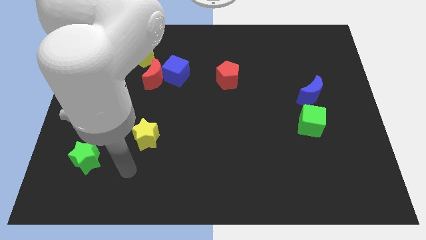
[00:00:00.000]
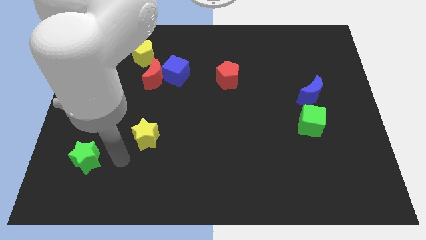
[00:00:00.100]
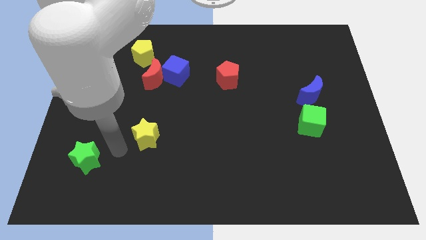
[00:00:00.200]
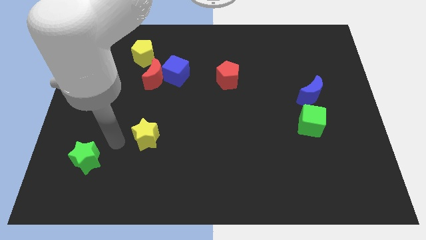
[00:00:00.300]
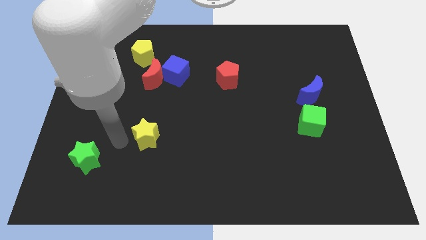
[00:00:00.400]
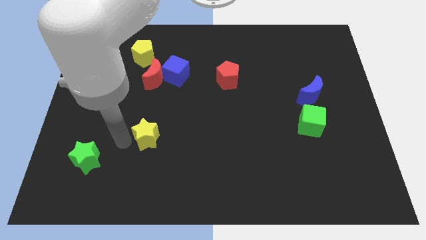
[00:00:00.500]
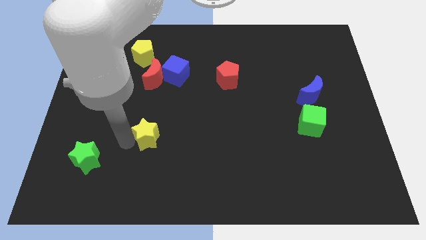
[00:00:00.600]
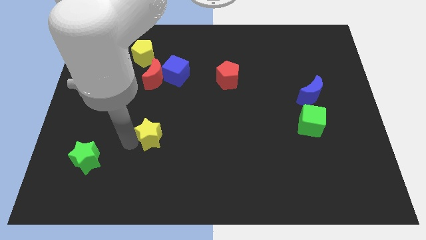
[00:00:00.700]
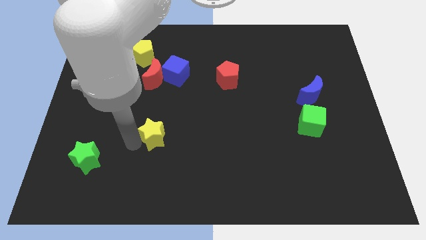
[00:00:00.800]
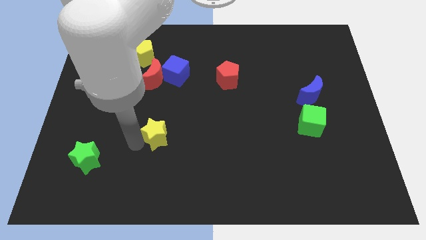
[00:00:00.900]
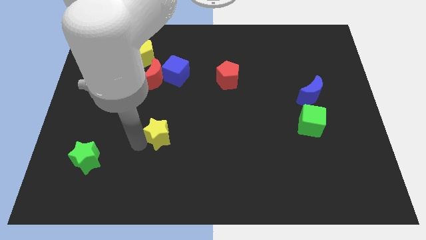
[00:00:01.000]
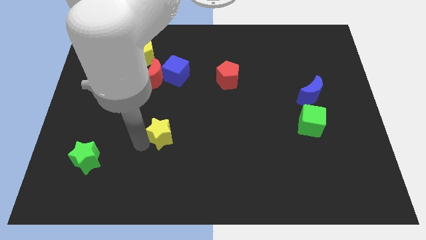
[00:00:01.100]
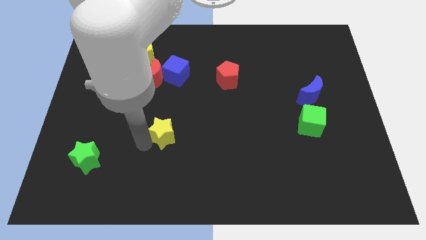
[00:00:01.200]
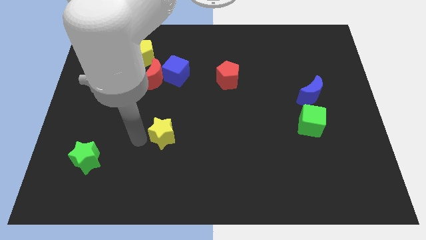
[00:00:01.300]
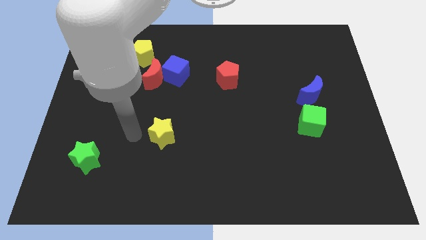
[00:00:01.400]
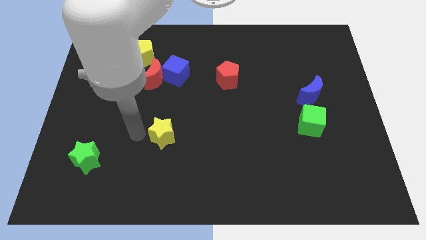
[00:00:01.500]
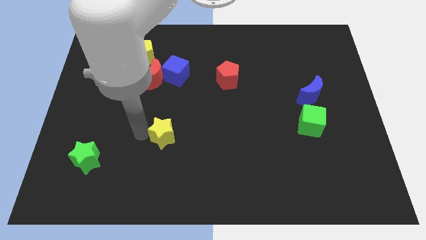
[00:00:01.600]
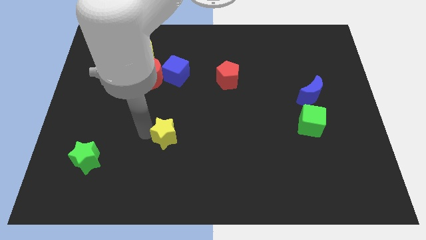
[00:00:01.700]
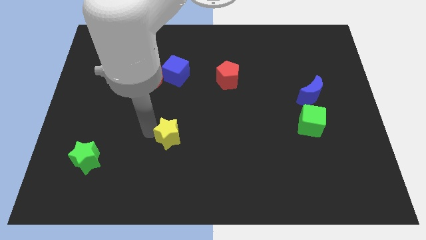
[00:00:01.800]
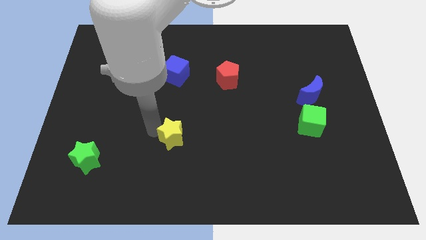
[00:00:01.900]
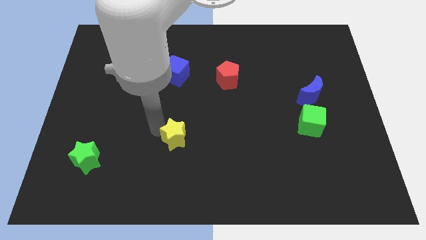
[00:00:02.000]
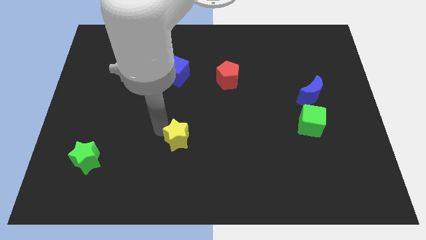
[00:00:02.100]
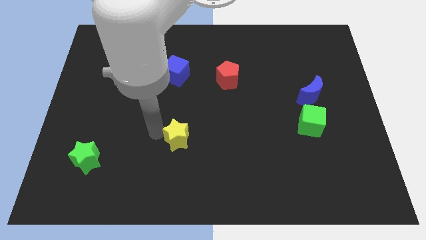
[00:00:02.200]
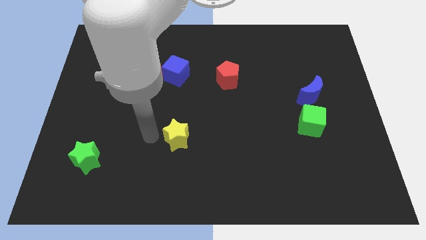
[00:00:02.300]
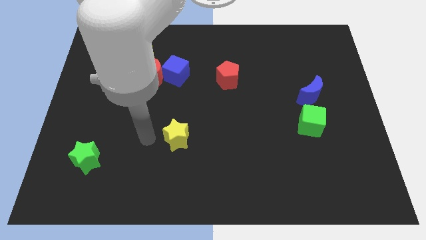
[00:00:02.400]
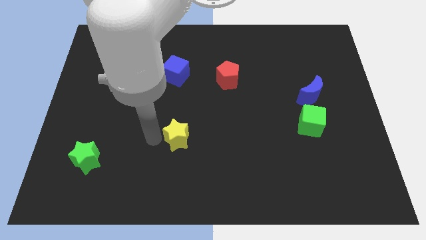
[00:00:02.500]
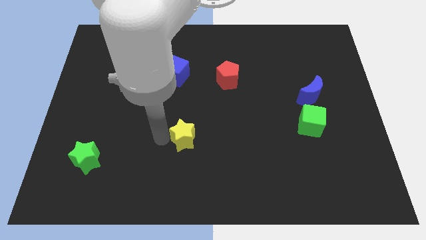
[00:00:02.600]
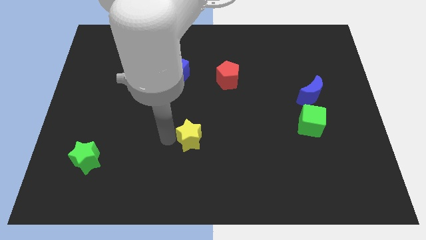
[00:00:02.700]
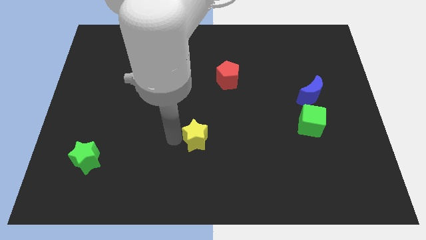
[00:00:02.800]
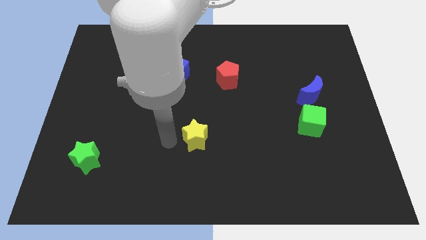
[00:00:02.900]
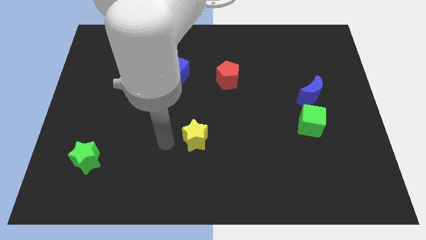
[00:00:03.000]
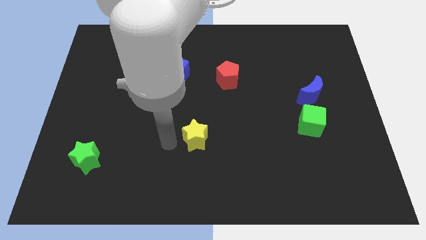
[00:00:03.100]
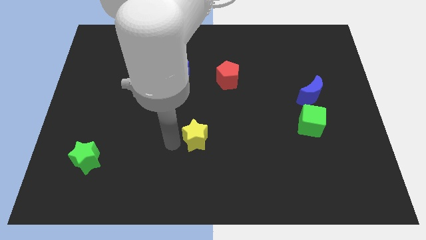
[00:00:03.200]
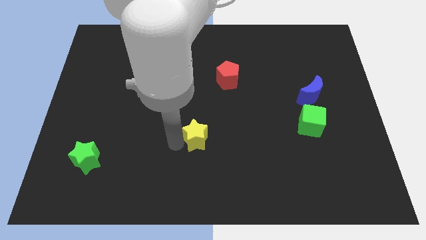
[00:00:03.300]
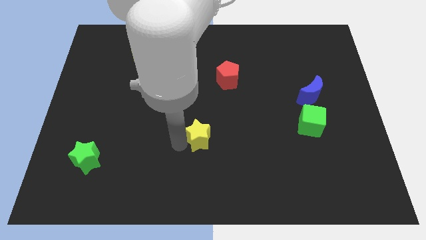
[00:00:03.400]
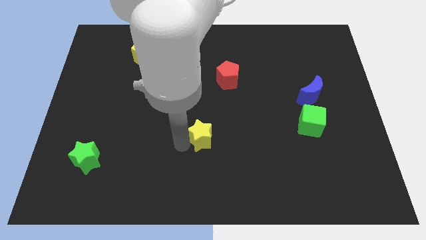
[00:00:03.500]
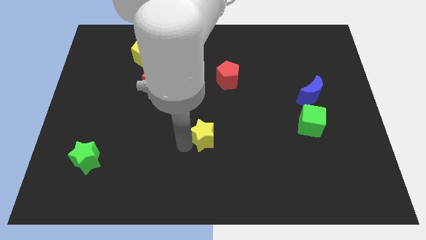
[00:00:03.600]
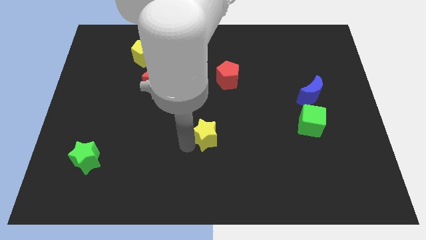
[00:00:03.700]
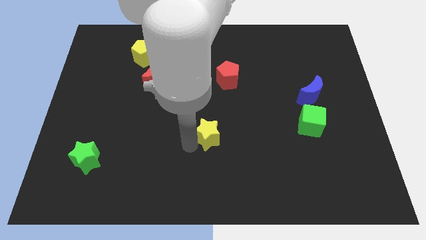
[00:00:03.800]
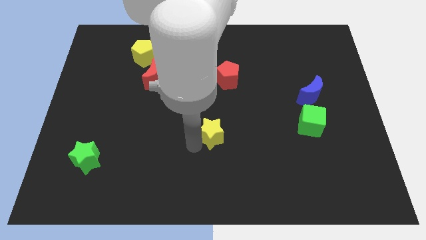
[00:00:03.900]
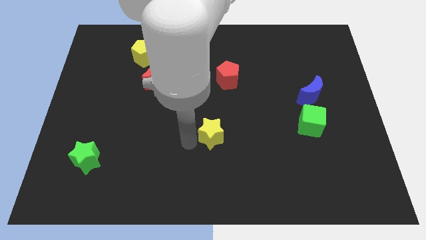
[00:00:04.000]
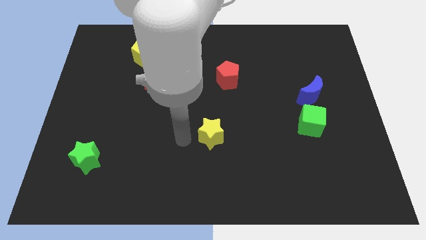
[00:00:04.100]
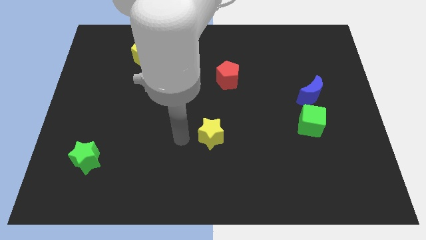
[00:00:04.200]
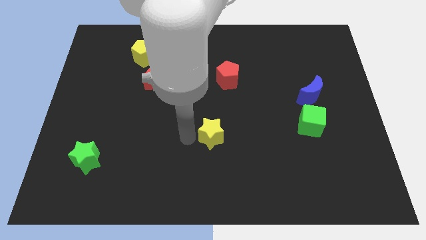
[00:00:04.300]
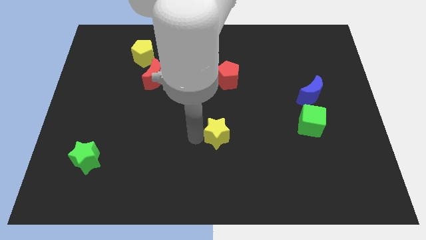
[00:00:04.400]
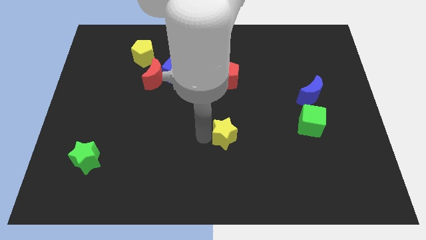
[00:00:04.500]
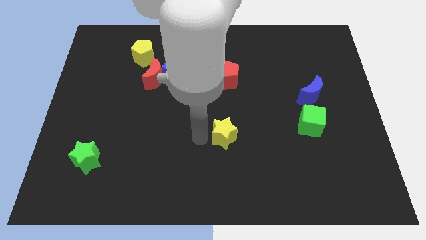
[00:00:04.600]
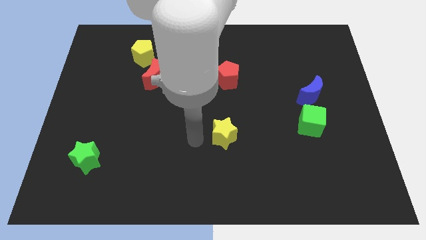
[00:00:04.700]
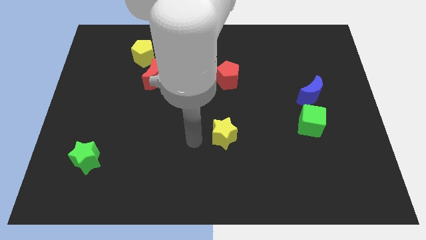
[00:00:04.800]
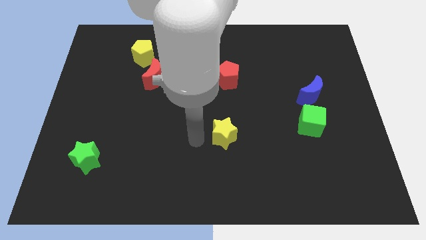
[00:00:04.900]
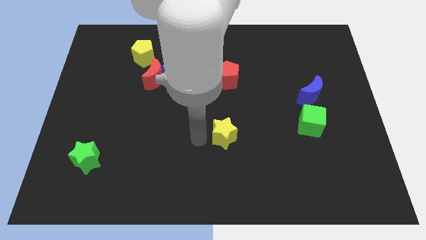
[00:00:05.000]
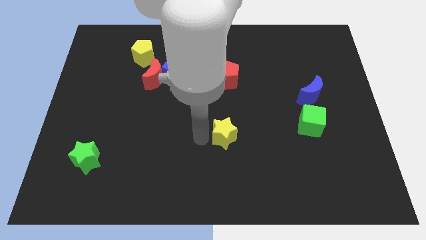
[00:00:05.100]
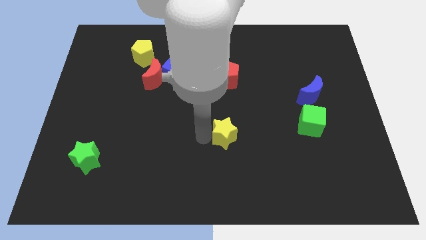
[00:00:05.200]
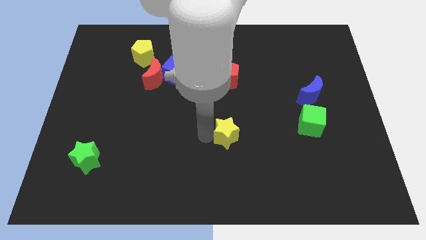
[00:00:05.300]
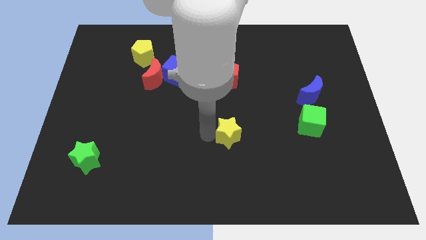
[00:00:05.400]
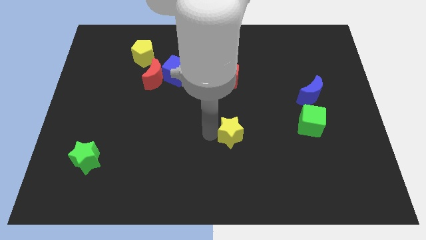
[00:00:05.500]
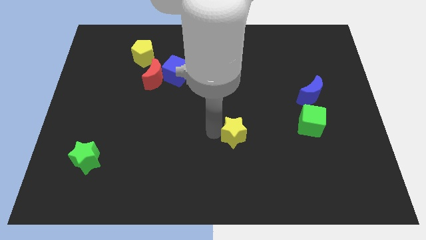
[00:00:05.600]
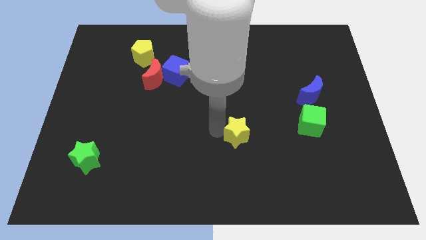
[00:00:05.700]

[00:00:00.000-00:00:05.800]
move the yellow star to the right

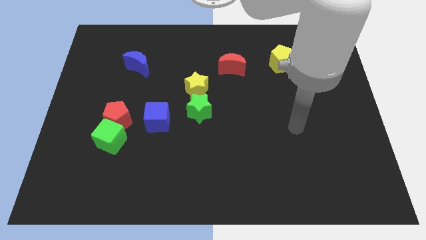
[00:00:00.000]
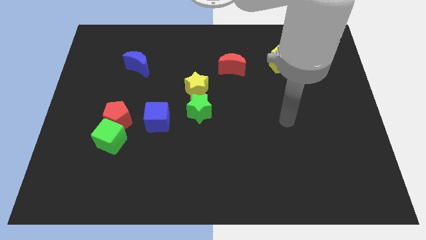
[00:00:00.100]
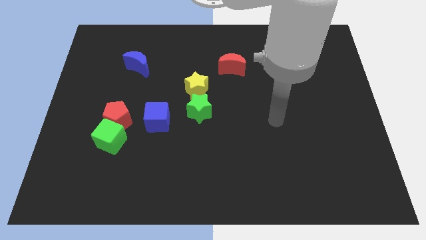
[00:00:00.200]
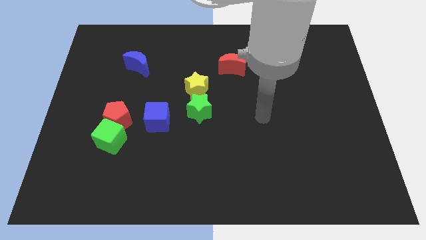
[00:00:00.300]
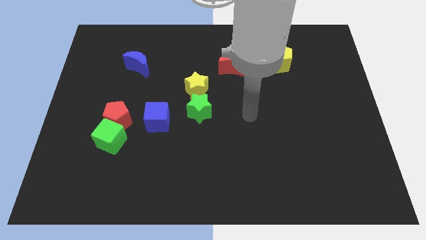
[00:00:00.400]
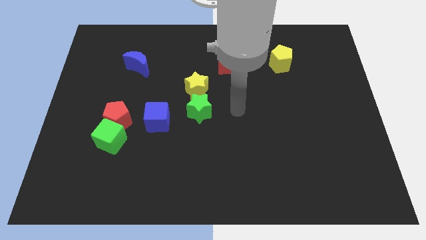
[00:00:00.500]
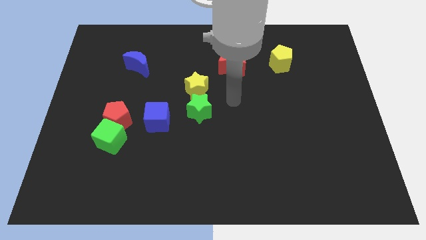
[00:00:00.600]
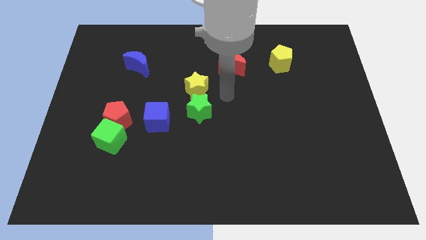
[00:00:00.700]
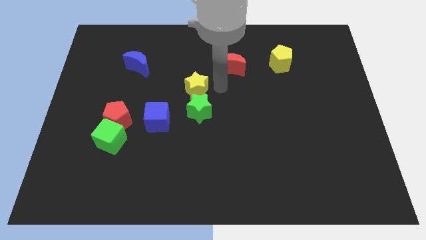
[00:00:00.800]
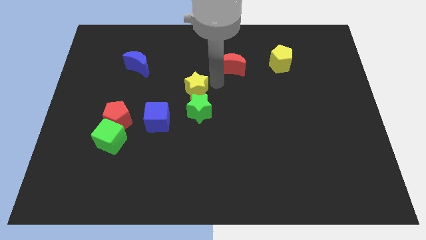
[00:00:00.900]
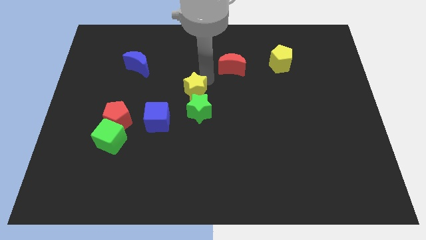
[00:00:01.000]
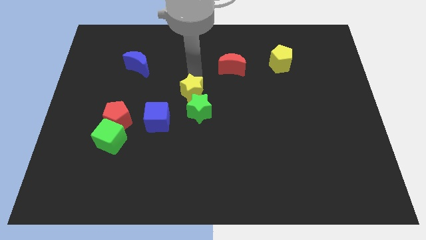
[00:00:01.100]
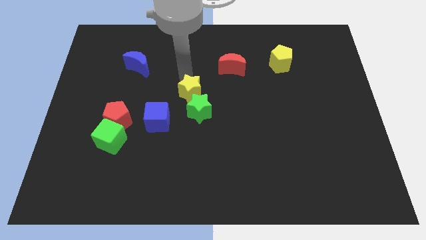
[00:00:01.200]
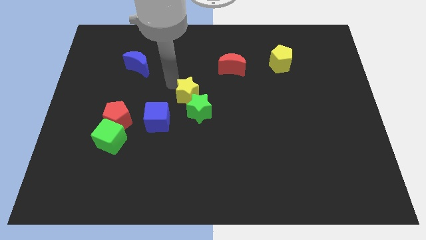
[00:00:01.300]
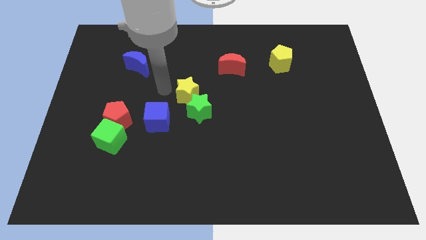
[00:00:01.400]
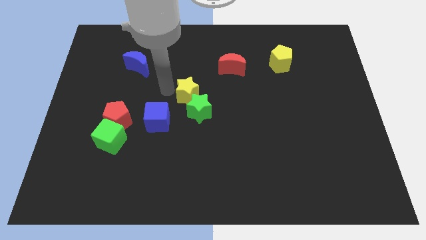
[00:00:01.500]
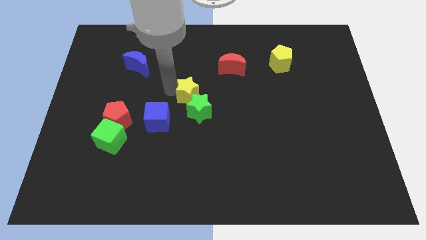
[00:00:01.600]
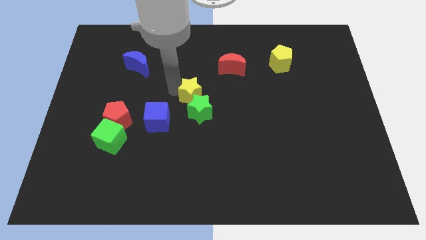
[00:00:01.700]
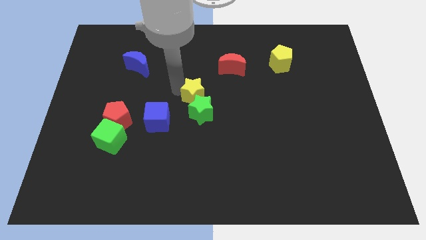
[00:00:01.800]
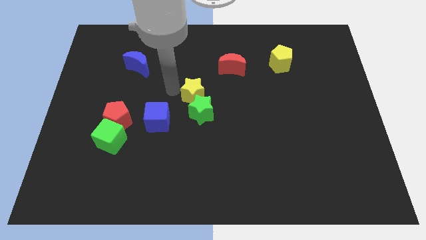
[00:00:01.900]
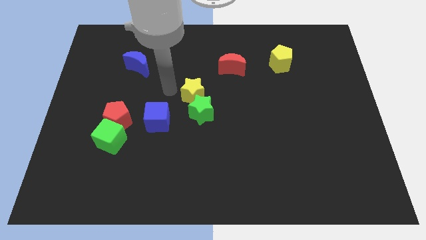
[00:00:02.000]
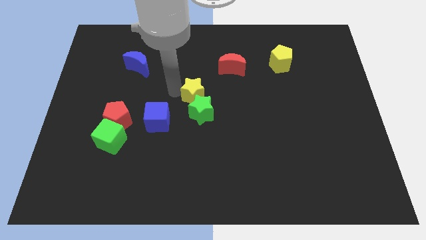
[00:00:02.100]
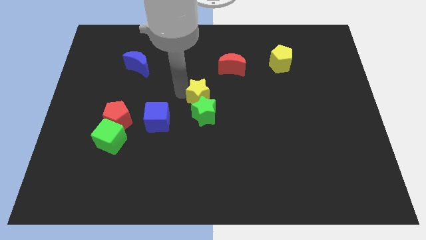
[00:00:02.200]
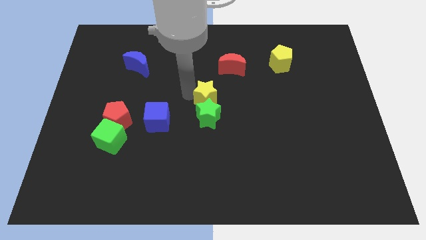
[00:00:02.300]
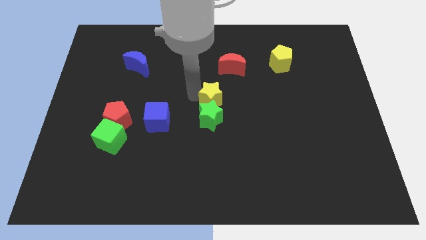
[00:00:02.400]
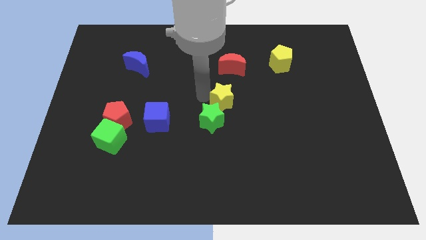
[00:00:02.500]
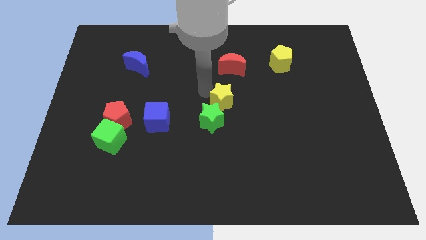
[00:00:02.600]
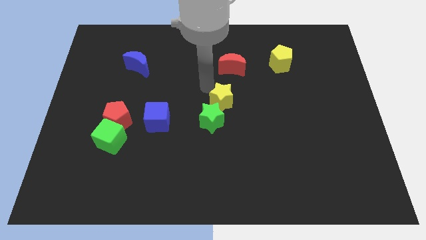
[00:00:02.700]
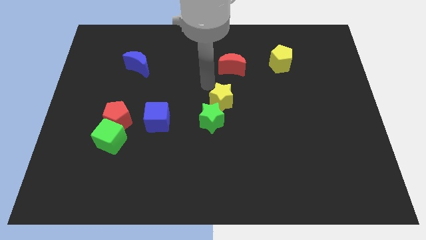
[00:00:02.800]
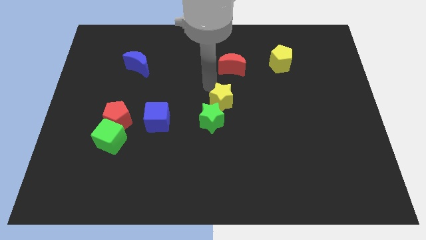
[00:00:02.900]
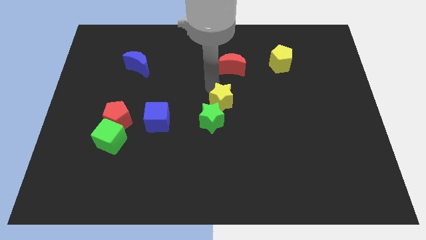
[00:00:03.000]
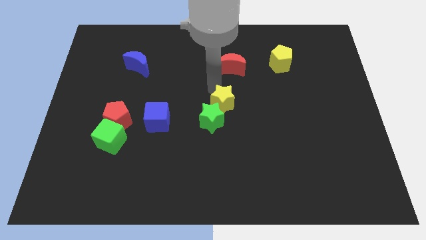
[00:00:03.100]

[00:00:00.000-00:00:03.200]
move the yellow star a little downwards and then to the right
